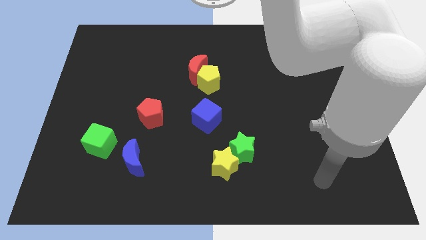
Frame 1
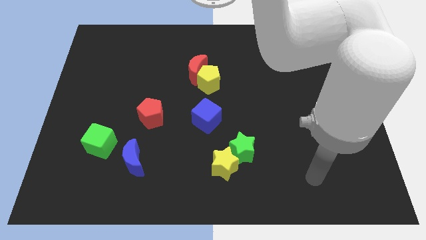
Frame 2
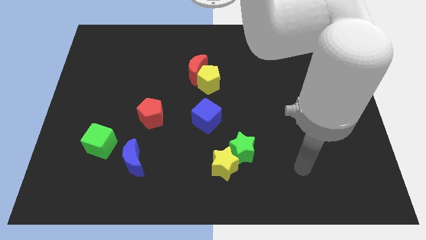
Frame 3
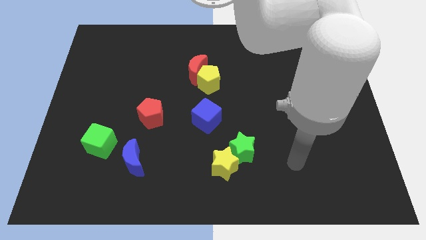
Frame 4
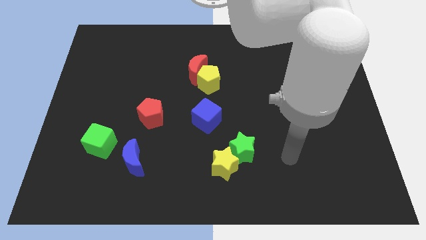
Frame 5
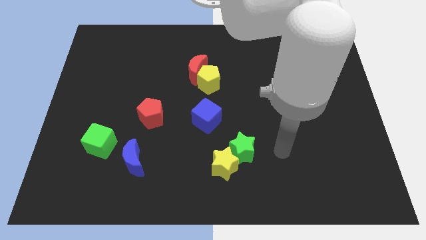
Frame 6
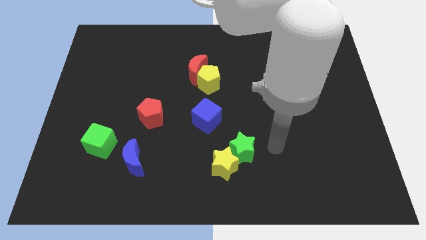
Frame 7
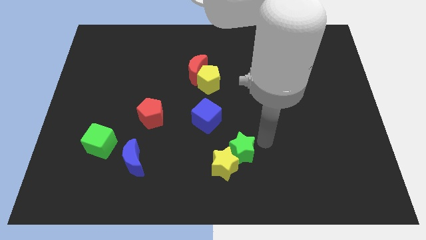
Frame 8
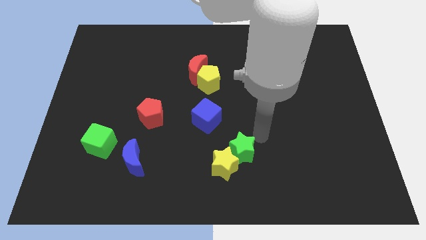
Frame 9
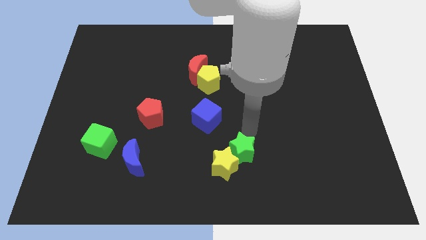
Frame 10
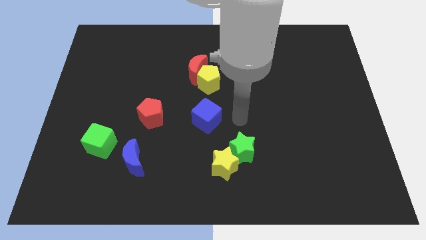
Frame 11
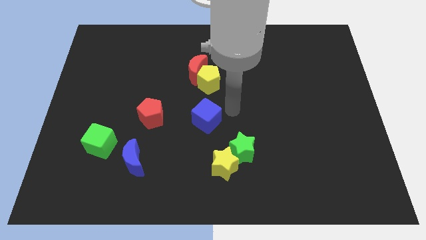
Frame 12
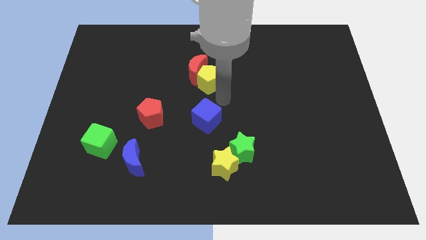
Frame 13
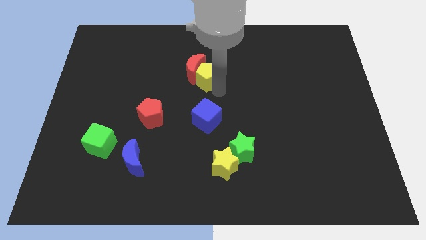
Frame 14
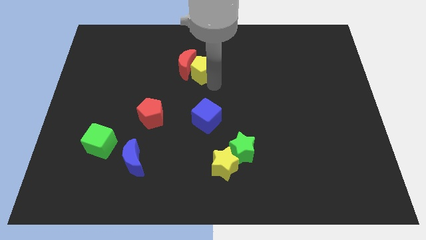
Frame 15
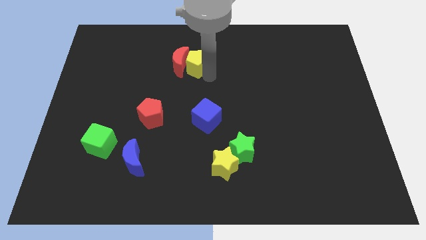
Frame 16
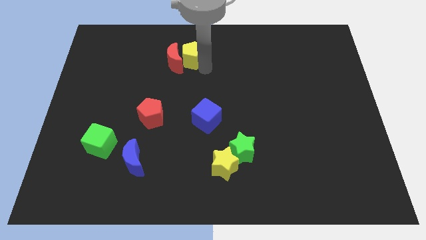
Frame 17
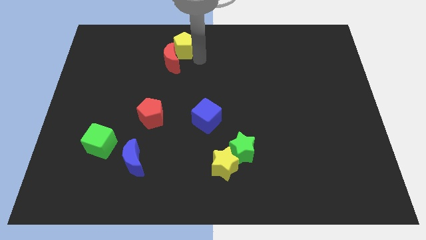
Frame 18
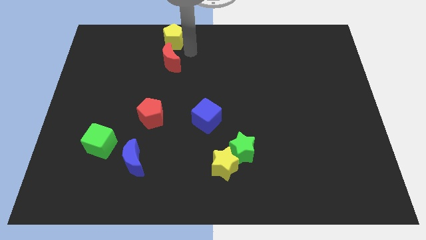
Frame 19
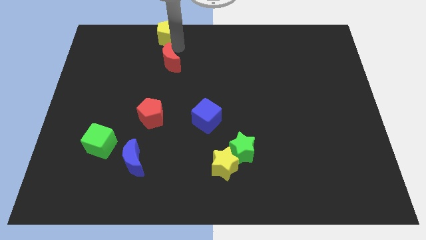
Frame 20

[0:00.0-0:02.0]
pull the red moon apart from the yellow pentagon

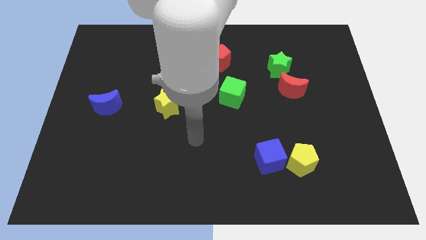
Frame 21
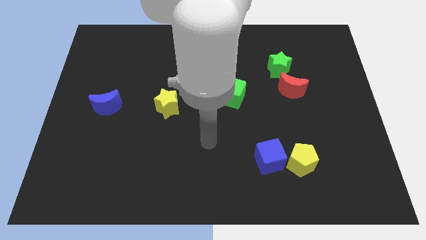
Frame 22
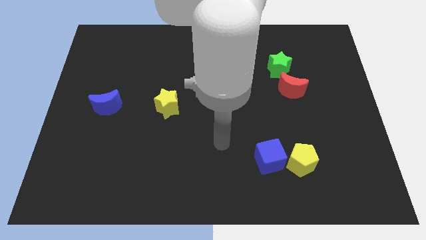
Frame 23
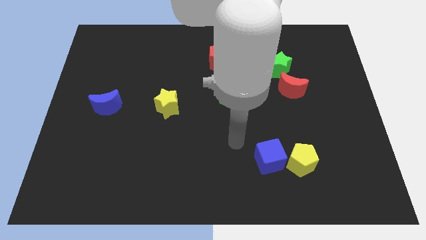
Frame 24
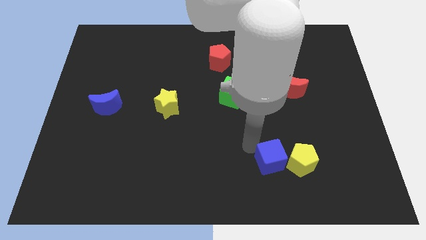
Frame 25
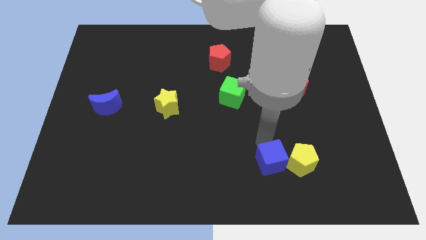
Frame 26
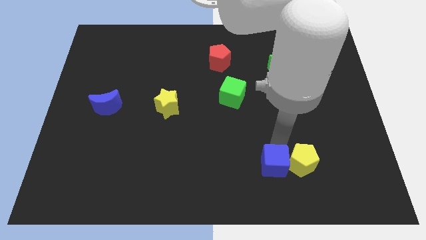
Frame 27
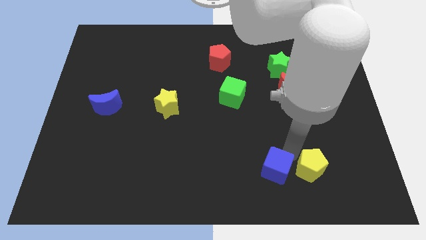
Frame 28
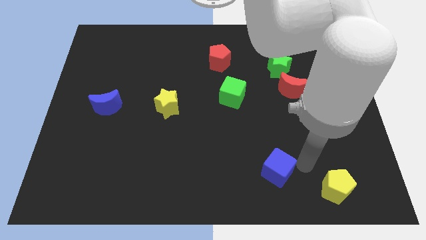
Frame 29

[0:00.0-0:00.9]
separate the blue cube from the yellow pentagon

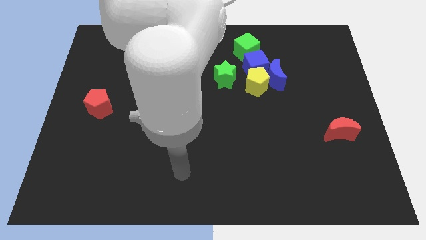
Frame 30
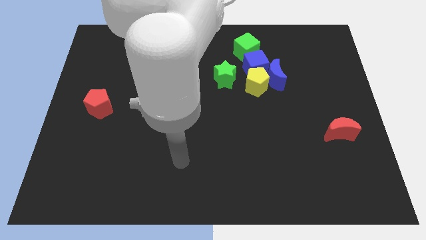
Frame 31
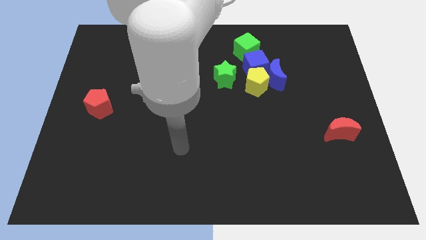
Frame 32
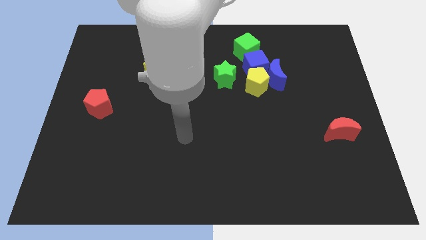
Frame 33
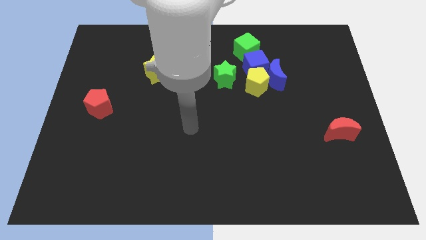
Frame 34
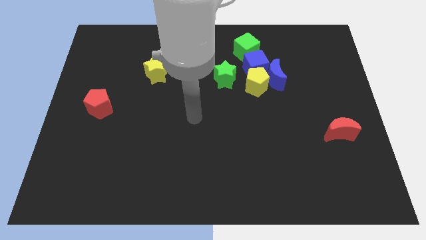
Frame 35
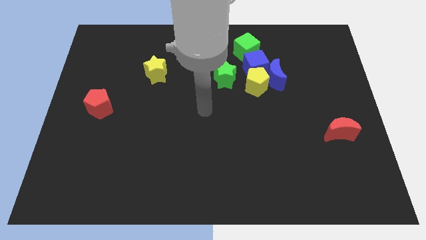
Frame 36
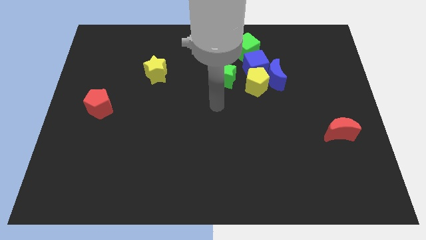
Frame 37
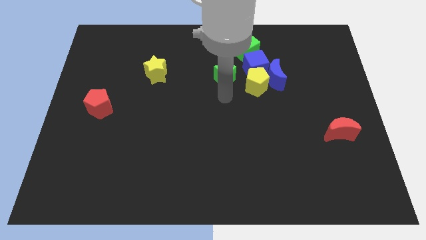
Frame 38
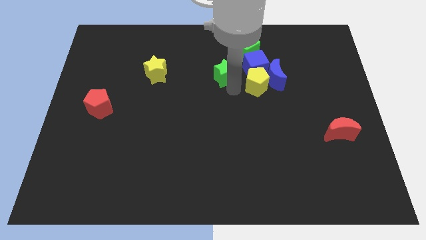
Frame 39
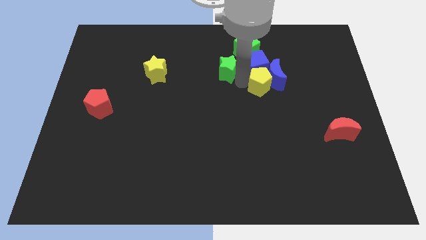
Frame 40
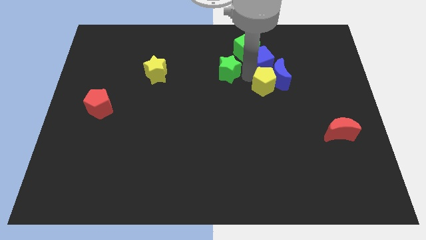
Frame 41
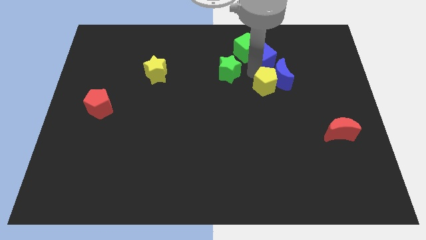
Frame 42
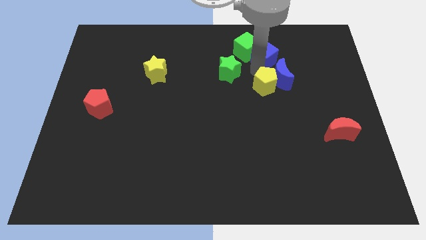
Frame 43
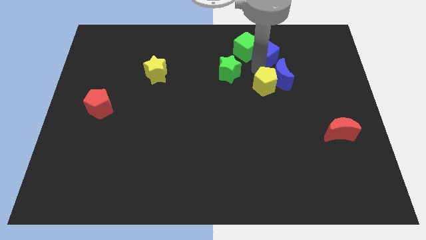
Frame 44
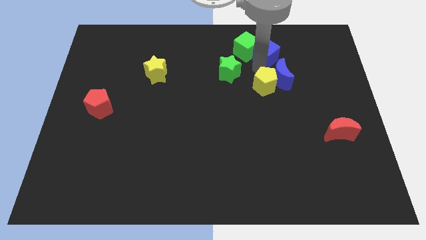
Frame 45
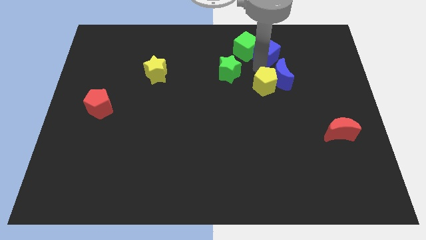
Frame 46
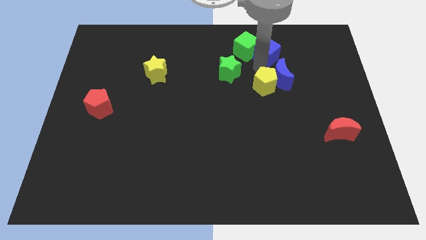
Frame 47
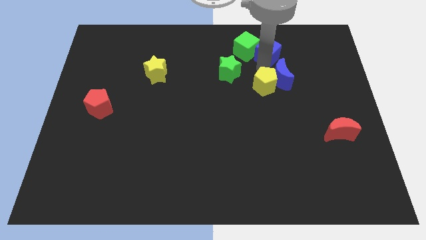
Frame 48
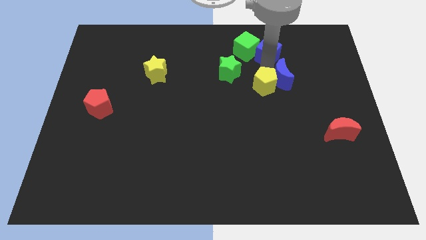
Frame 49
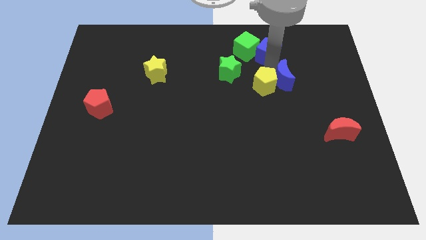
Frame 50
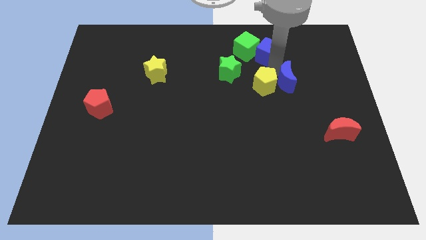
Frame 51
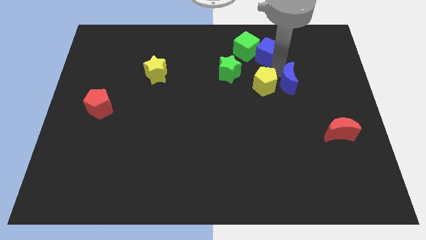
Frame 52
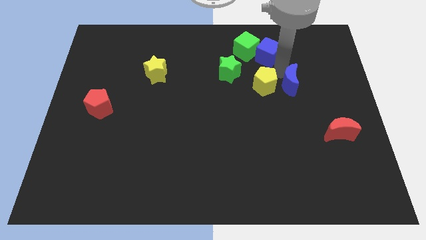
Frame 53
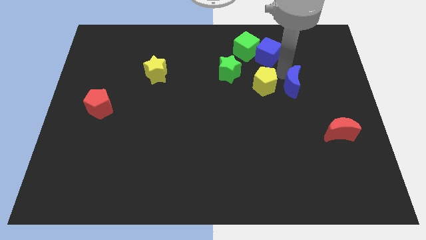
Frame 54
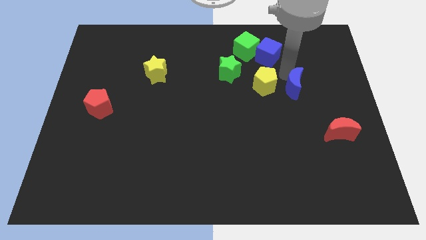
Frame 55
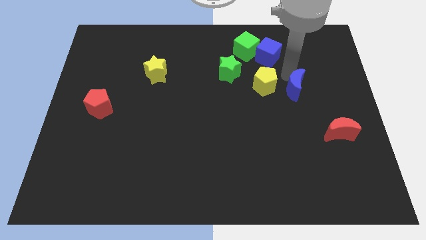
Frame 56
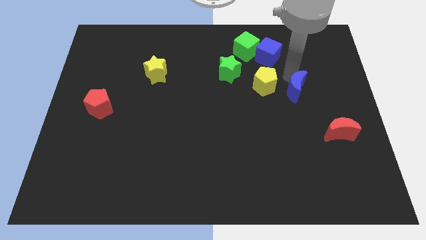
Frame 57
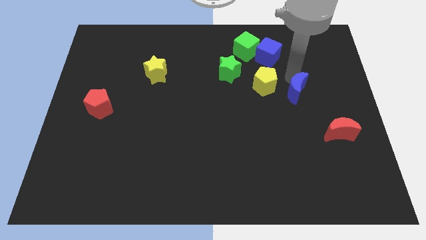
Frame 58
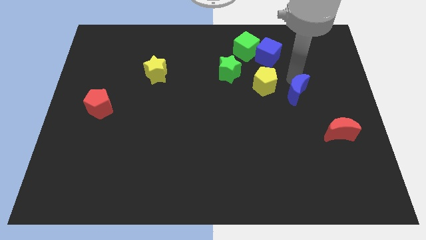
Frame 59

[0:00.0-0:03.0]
move the blue moon away from the yellow pentagon and blue cube

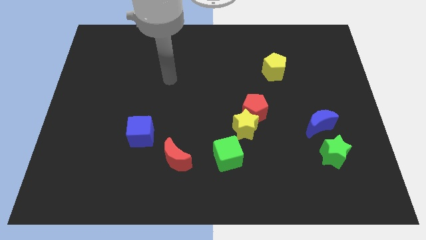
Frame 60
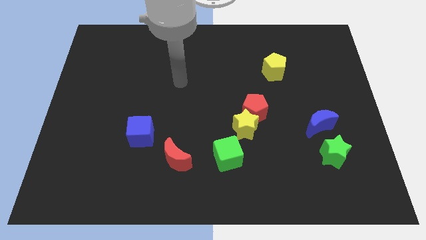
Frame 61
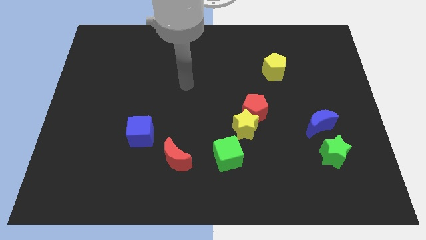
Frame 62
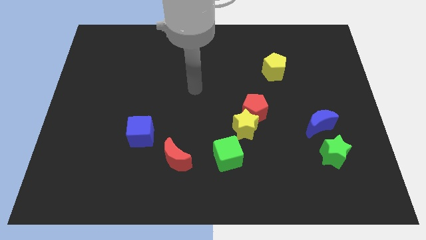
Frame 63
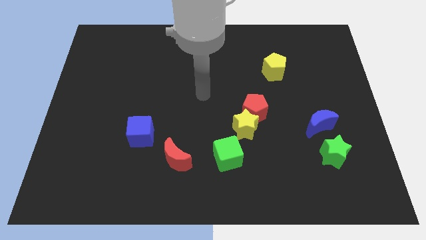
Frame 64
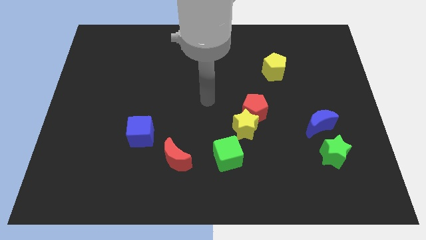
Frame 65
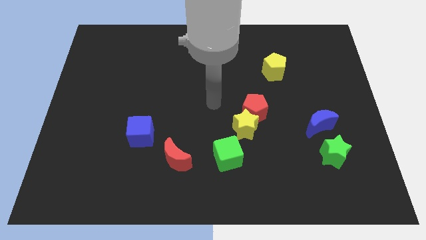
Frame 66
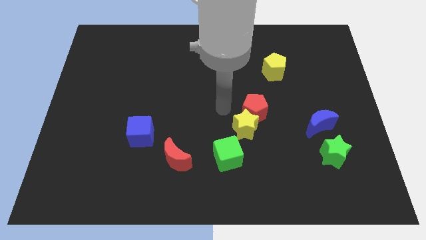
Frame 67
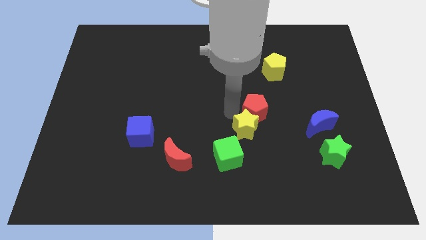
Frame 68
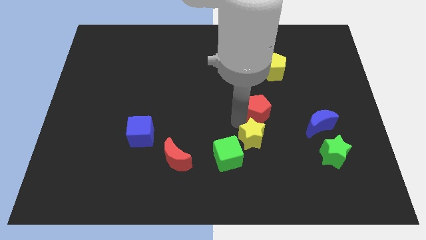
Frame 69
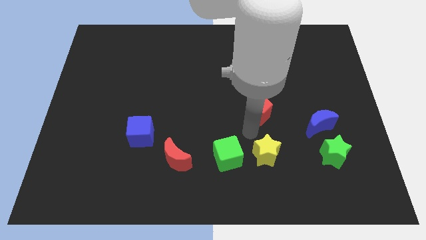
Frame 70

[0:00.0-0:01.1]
separate the red pentagon from the yellow star

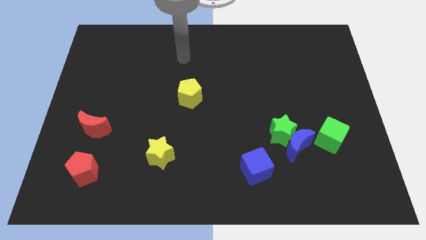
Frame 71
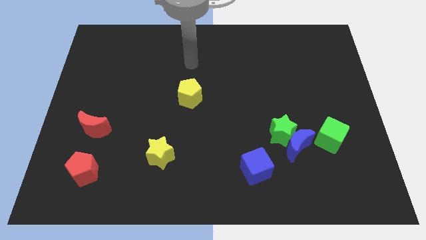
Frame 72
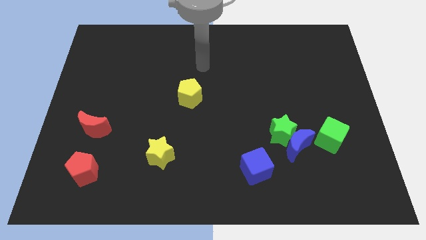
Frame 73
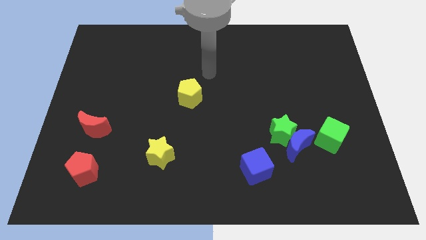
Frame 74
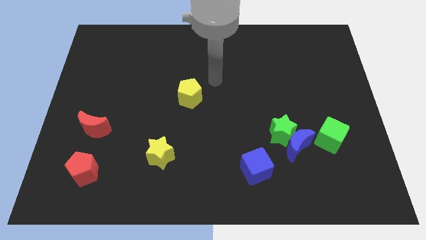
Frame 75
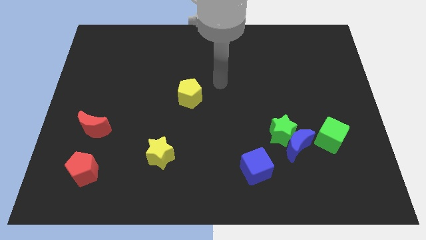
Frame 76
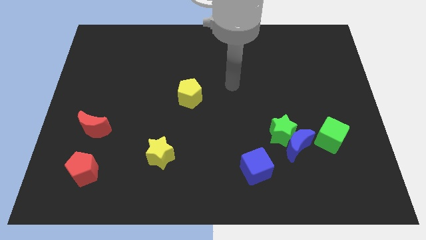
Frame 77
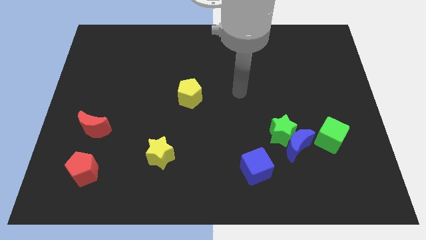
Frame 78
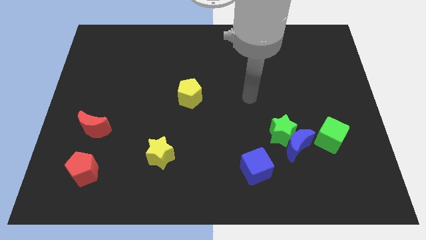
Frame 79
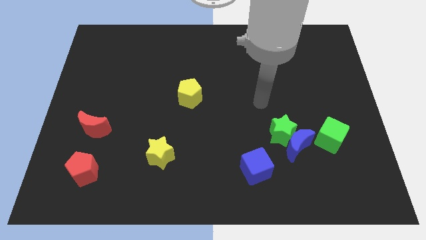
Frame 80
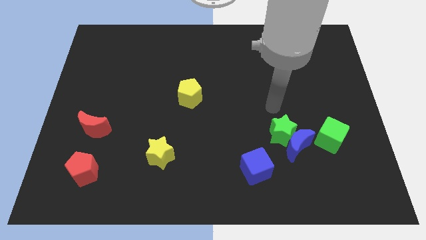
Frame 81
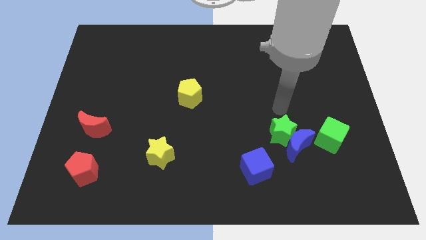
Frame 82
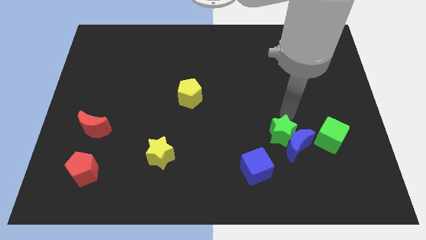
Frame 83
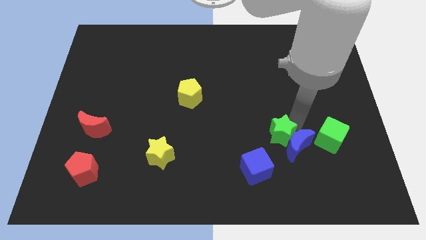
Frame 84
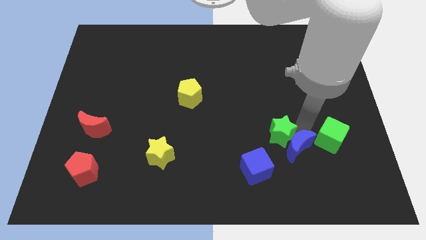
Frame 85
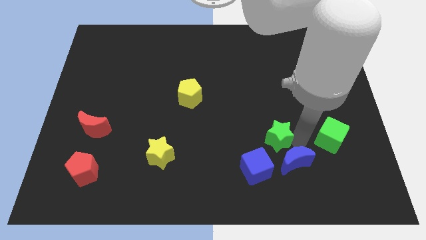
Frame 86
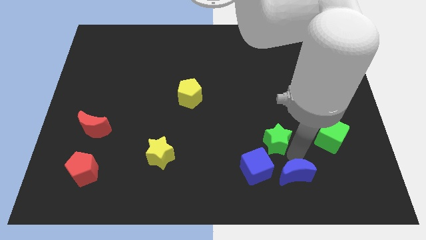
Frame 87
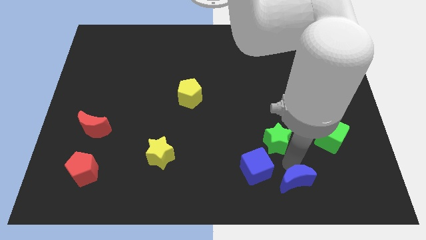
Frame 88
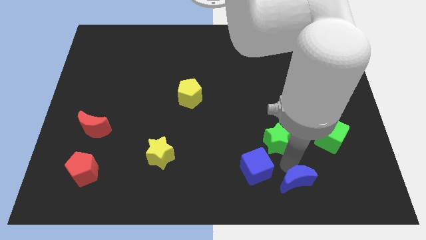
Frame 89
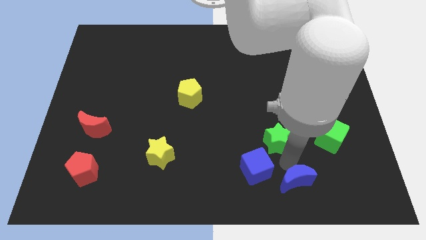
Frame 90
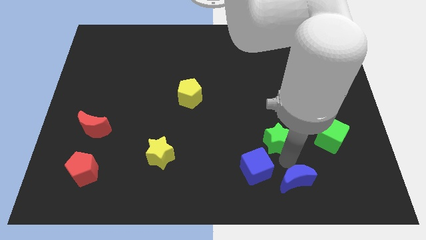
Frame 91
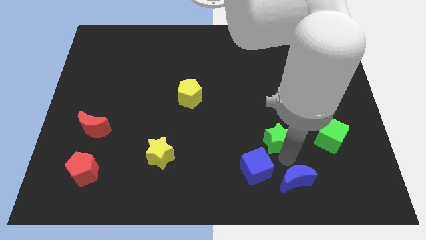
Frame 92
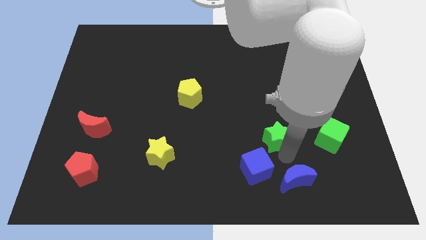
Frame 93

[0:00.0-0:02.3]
pull the green star apart from the blue moon
